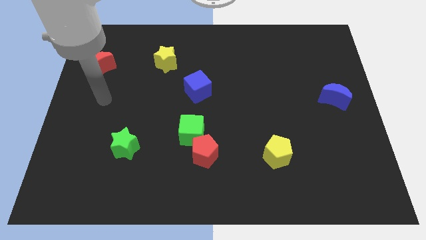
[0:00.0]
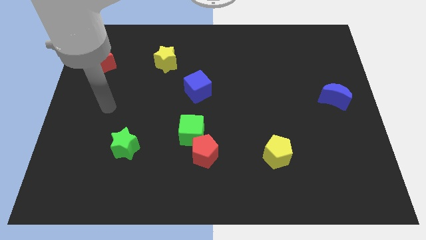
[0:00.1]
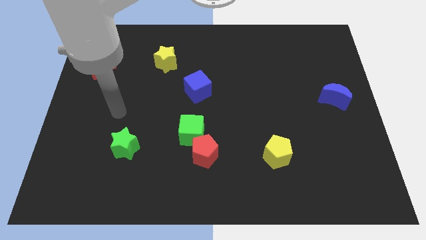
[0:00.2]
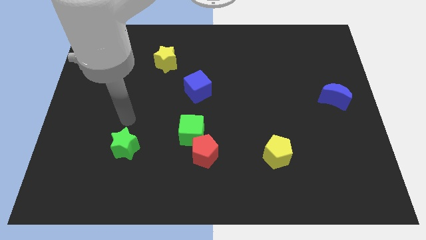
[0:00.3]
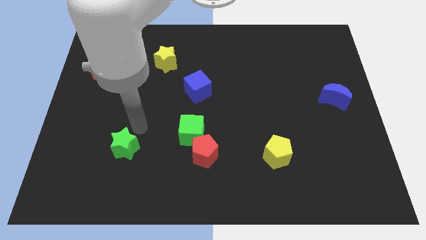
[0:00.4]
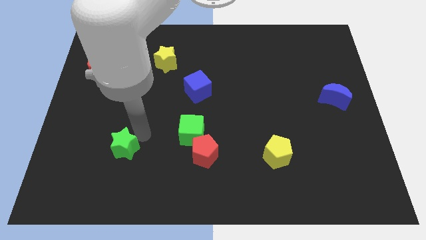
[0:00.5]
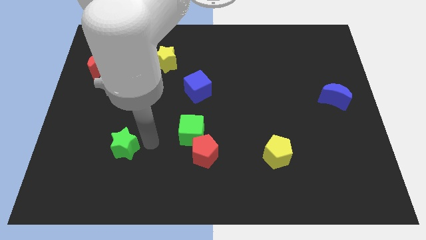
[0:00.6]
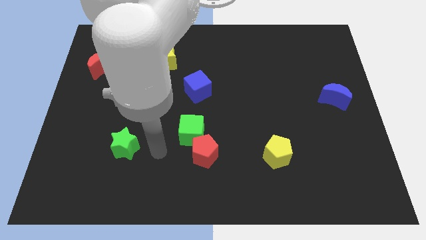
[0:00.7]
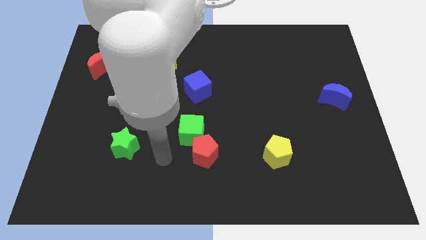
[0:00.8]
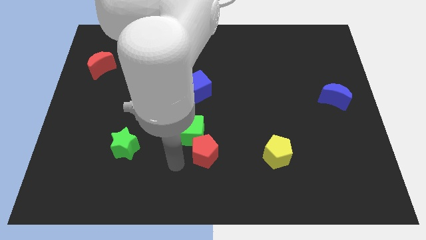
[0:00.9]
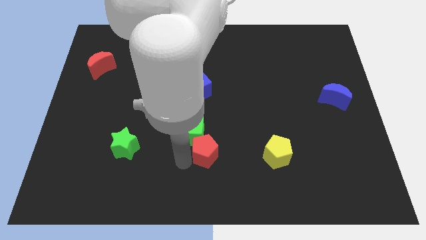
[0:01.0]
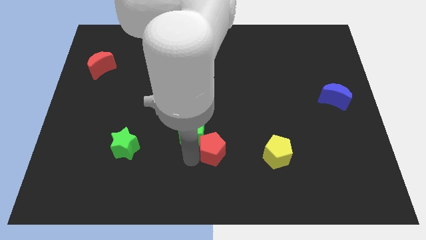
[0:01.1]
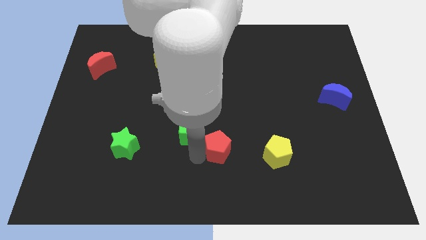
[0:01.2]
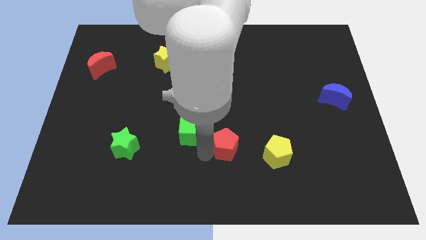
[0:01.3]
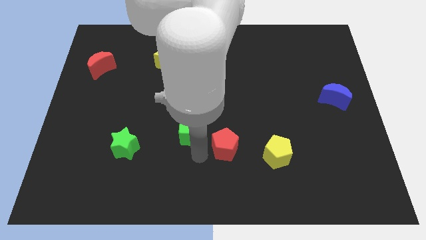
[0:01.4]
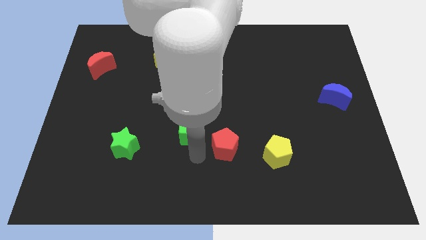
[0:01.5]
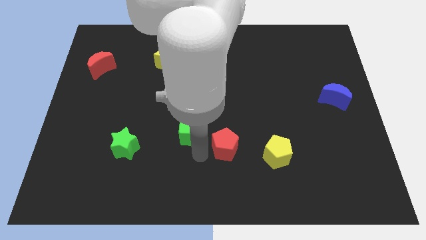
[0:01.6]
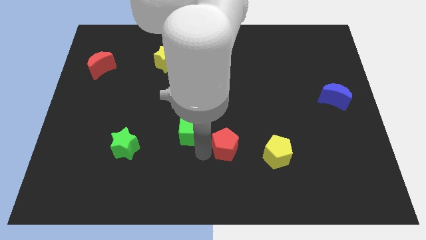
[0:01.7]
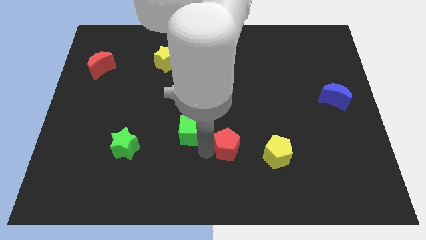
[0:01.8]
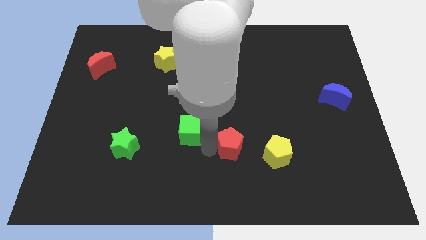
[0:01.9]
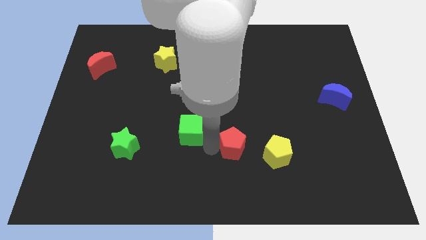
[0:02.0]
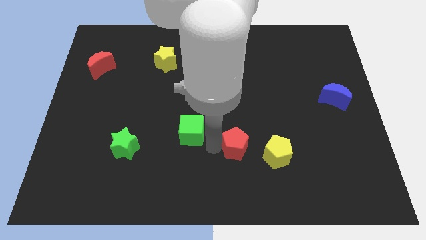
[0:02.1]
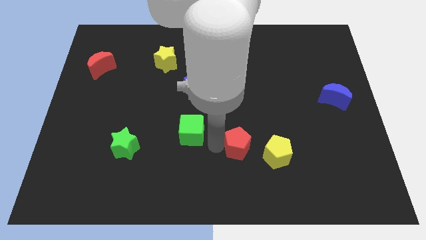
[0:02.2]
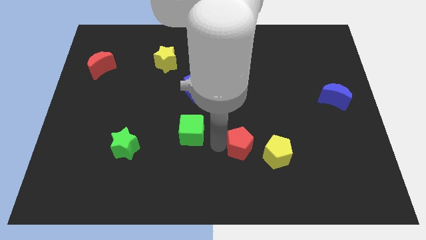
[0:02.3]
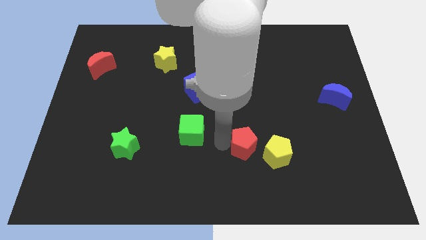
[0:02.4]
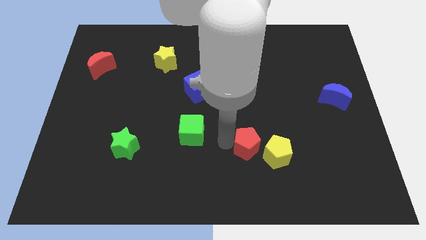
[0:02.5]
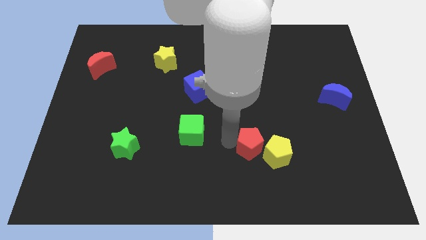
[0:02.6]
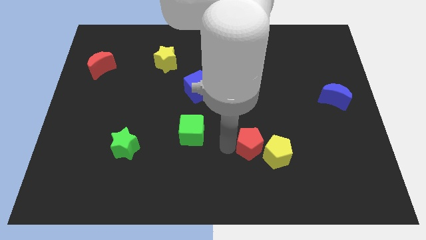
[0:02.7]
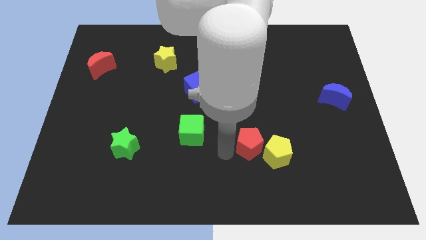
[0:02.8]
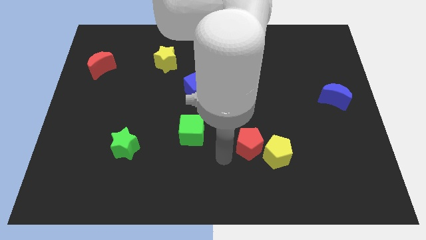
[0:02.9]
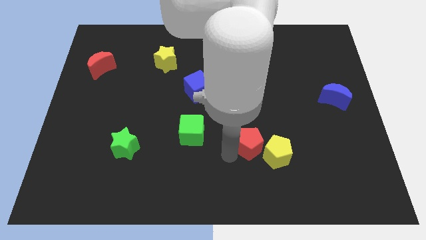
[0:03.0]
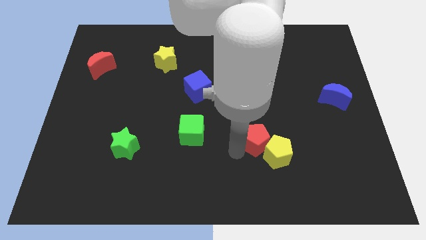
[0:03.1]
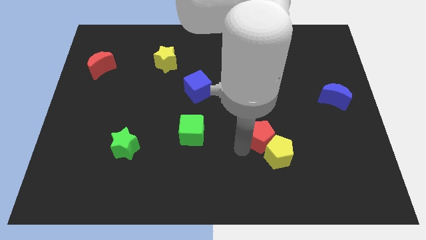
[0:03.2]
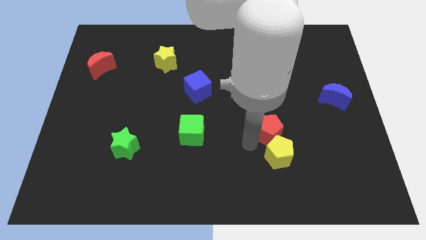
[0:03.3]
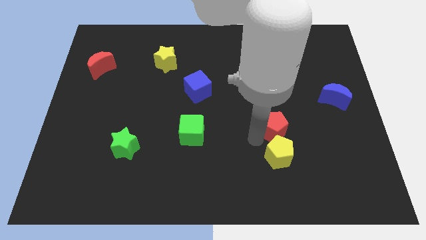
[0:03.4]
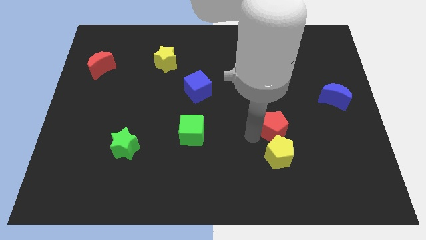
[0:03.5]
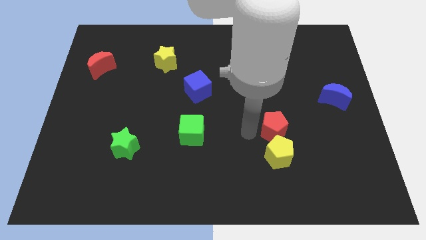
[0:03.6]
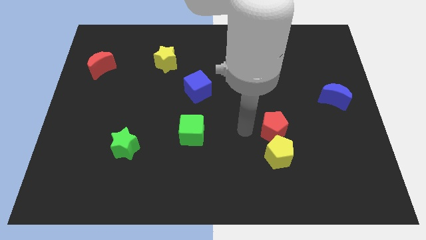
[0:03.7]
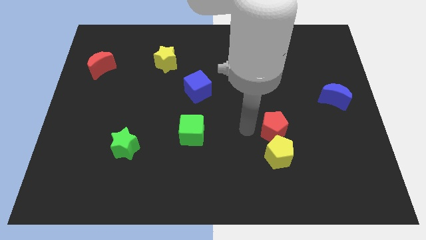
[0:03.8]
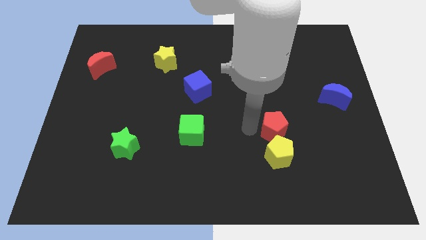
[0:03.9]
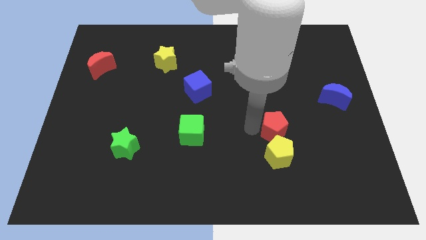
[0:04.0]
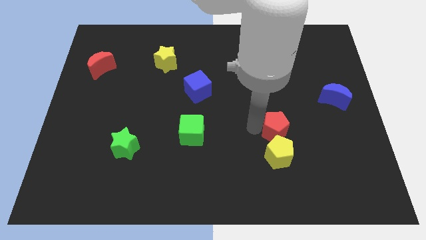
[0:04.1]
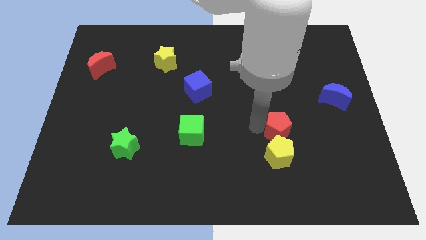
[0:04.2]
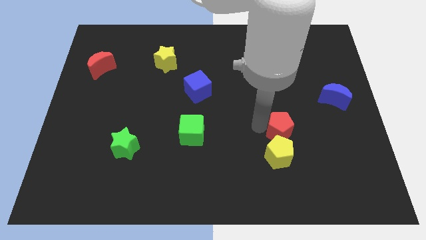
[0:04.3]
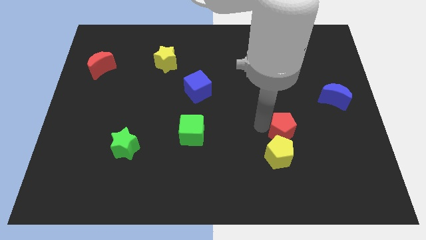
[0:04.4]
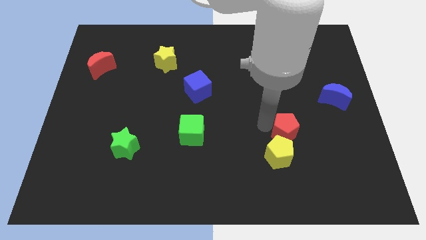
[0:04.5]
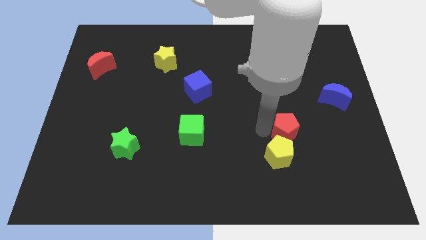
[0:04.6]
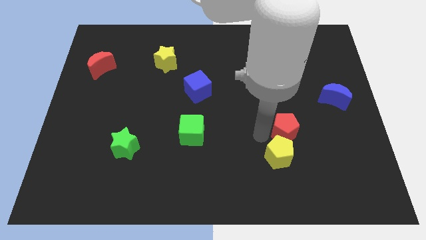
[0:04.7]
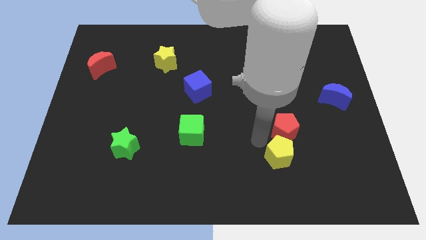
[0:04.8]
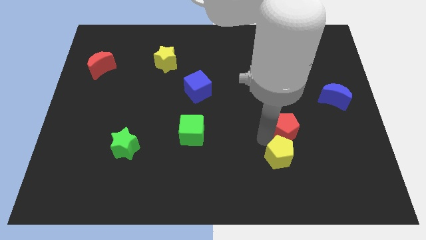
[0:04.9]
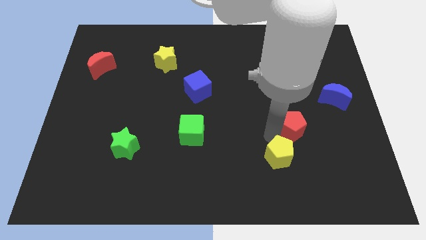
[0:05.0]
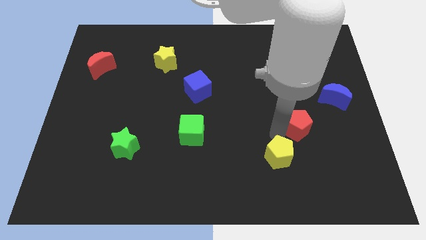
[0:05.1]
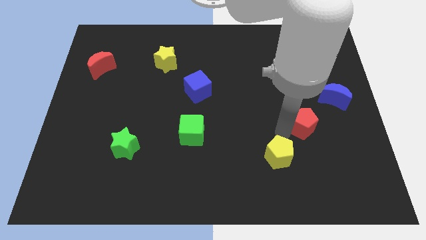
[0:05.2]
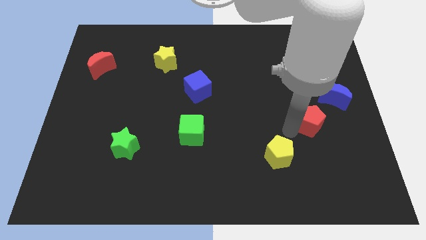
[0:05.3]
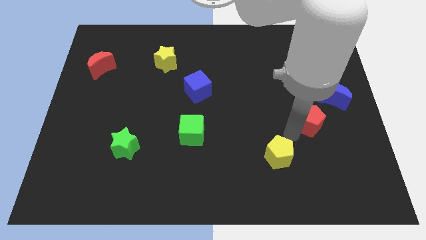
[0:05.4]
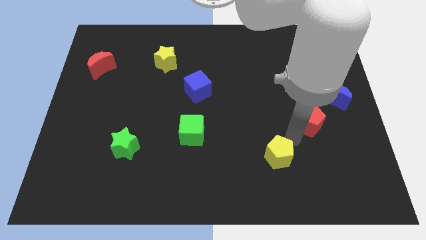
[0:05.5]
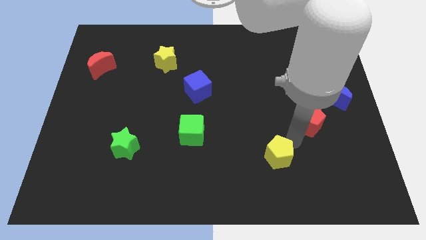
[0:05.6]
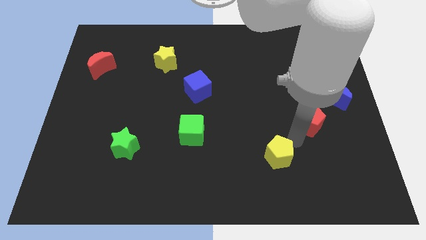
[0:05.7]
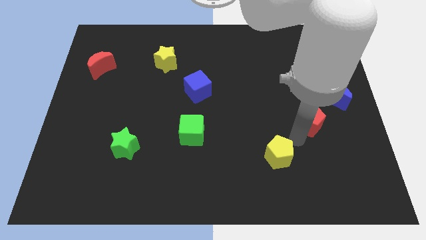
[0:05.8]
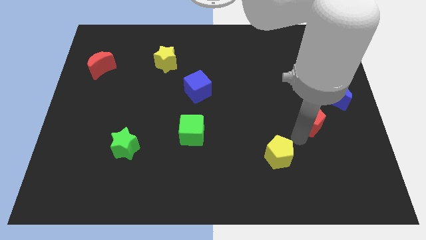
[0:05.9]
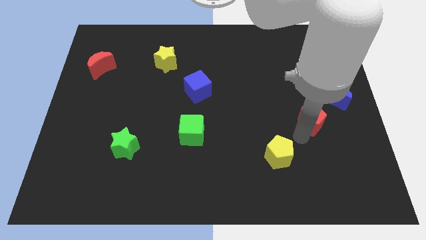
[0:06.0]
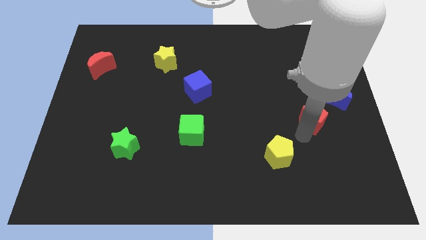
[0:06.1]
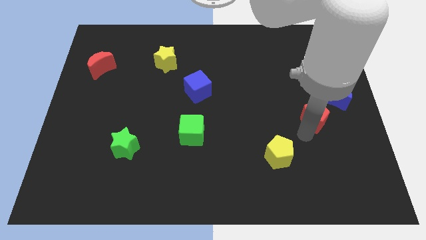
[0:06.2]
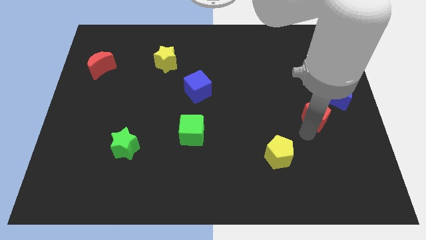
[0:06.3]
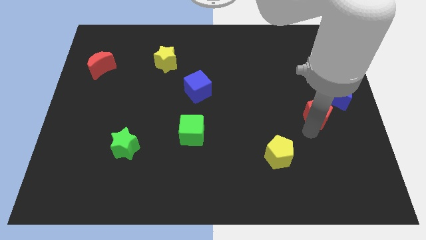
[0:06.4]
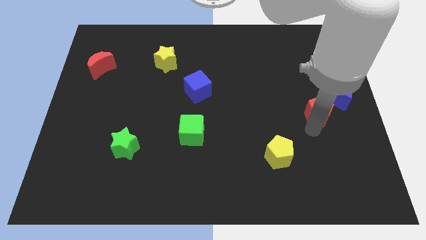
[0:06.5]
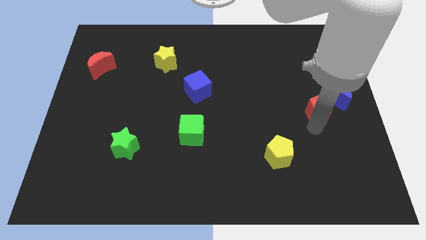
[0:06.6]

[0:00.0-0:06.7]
push the red pentagon towards the blue moon
